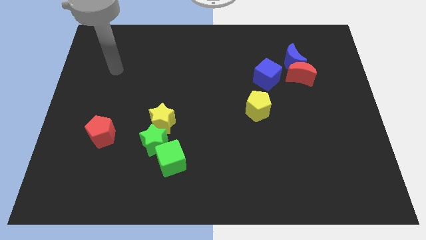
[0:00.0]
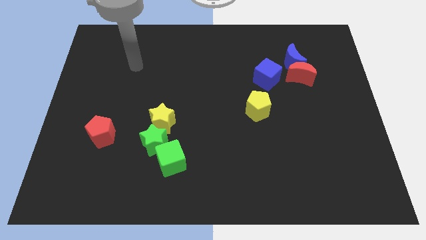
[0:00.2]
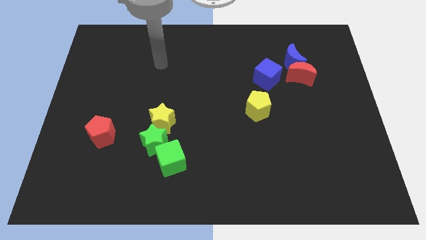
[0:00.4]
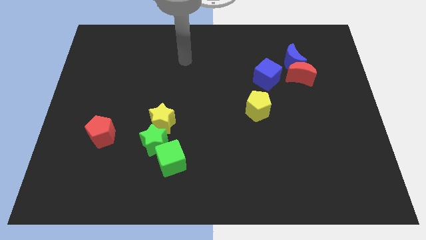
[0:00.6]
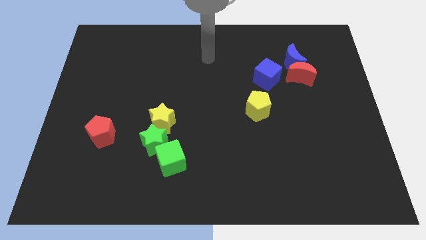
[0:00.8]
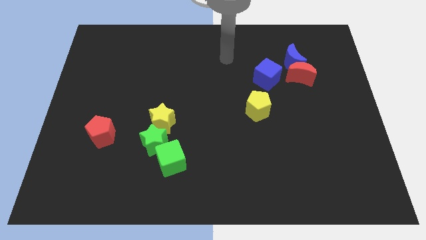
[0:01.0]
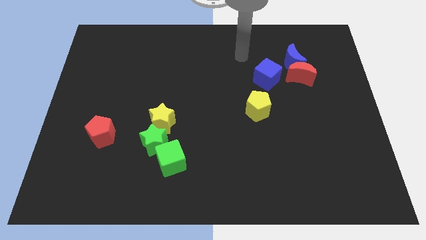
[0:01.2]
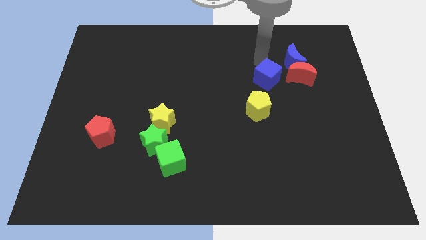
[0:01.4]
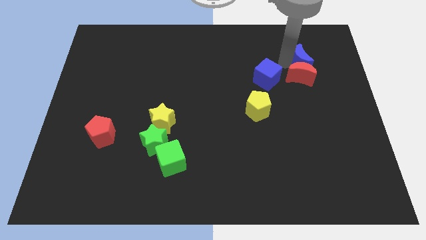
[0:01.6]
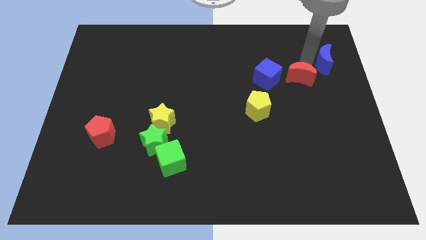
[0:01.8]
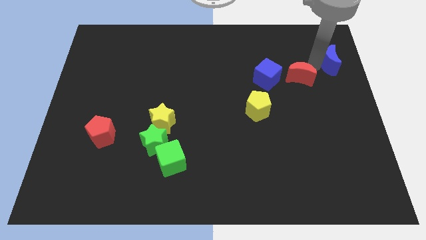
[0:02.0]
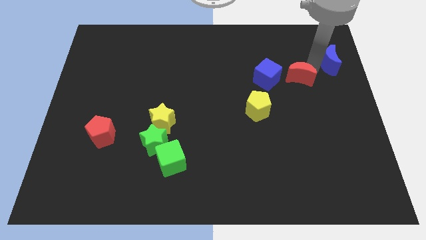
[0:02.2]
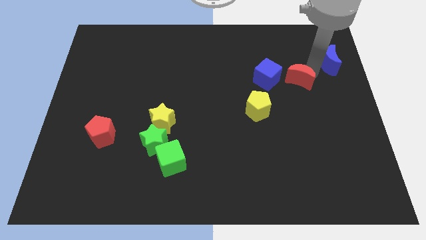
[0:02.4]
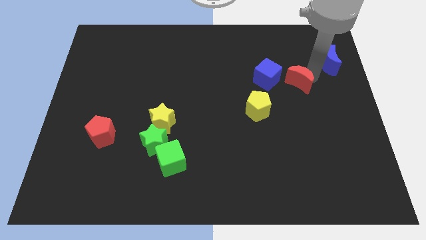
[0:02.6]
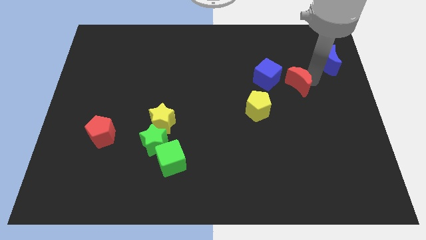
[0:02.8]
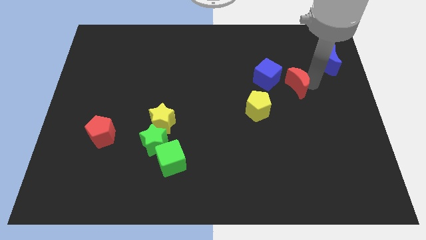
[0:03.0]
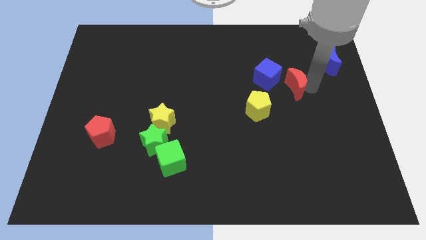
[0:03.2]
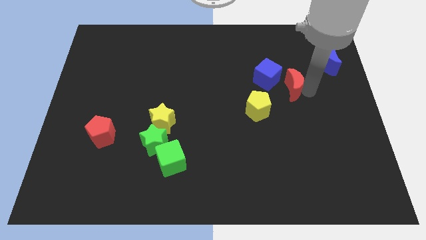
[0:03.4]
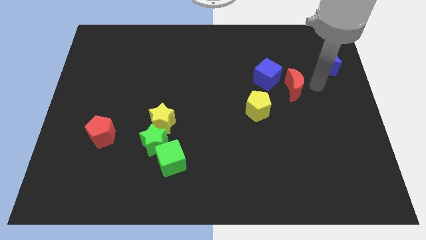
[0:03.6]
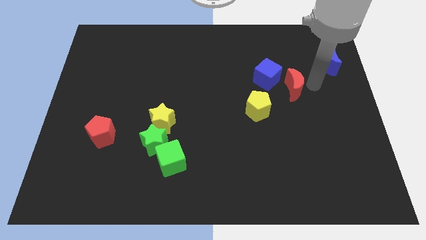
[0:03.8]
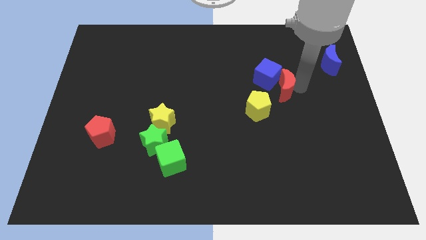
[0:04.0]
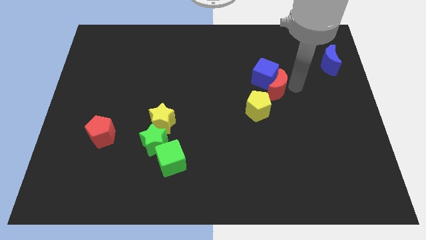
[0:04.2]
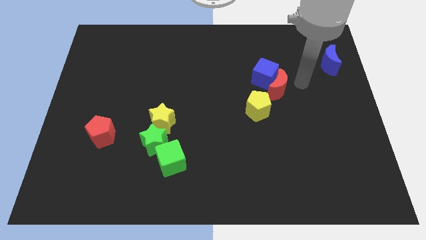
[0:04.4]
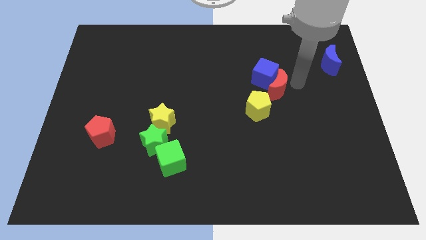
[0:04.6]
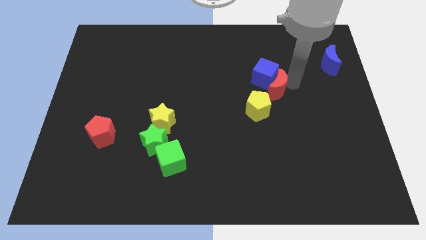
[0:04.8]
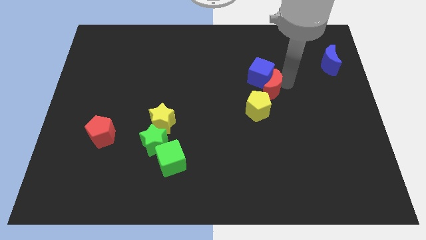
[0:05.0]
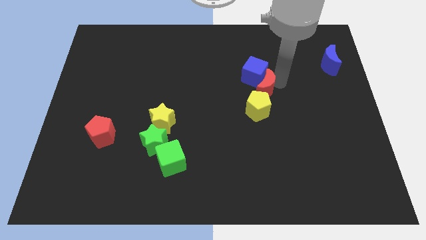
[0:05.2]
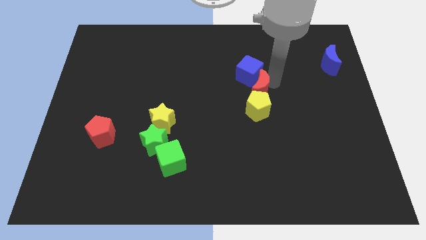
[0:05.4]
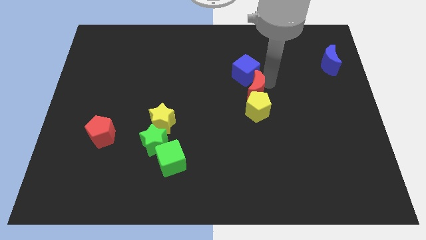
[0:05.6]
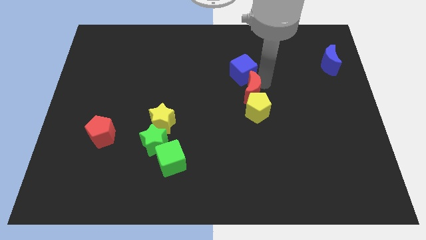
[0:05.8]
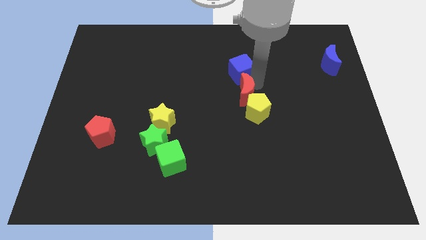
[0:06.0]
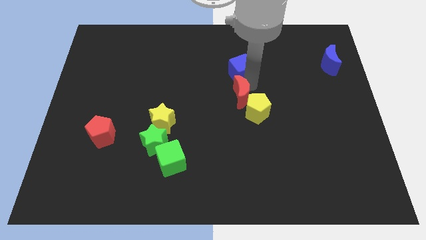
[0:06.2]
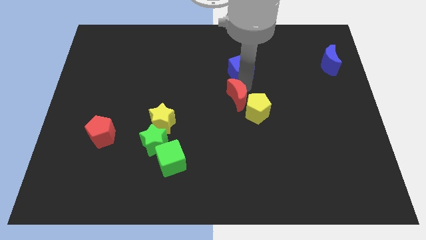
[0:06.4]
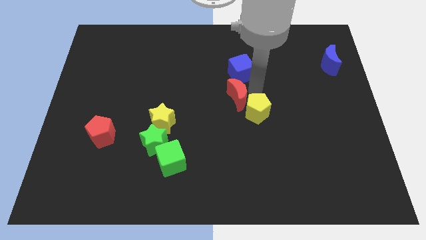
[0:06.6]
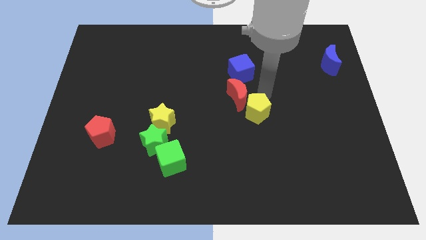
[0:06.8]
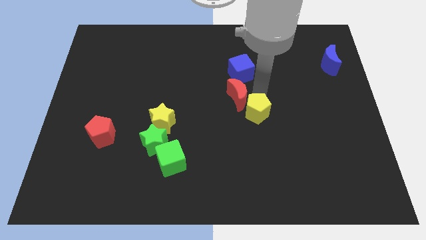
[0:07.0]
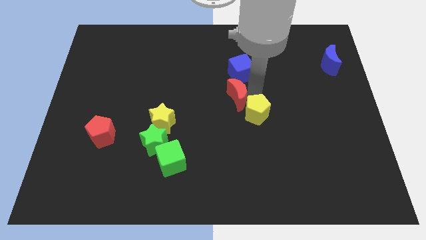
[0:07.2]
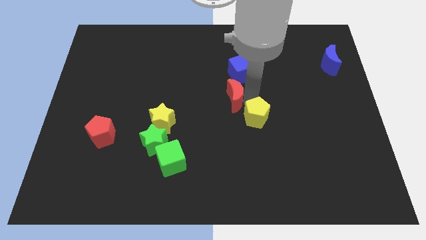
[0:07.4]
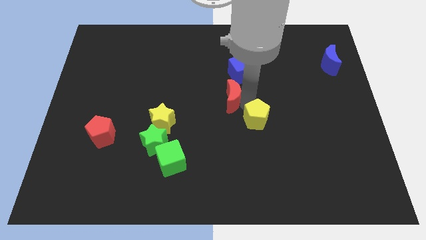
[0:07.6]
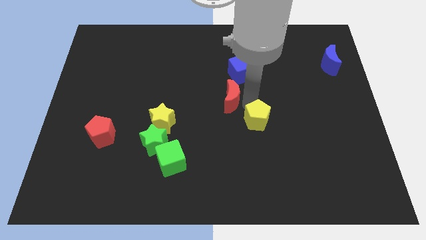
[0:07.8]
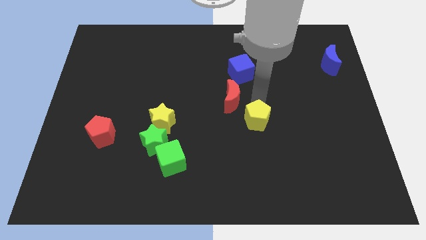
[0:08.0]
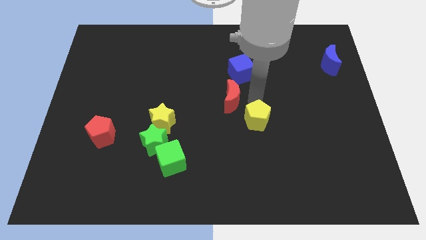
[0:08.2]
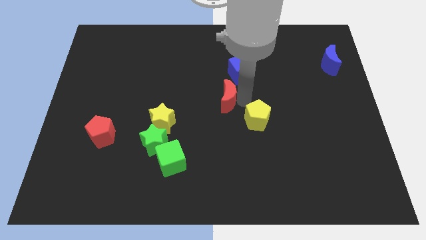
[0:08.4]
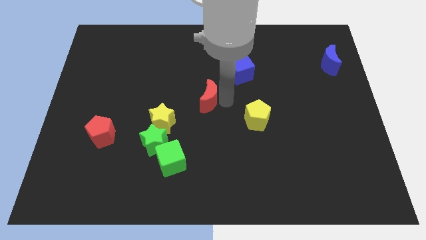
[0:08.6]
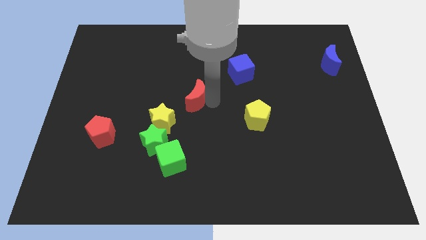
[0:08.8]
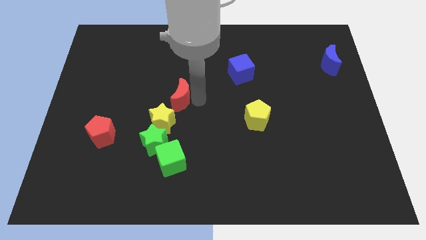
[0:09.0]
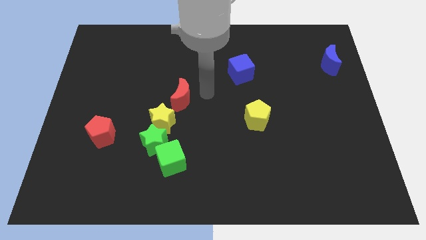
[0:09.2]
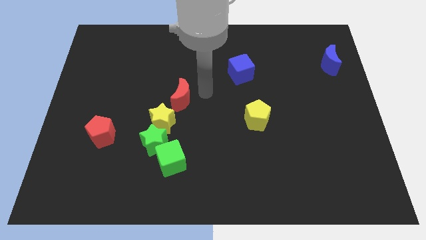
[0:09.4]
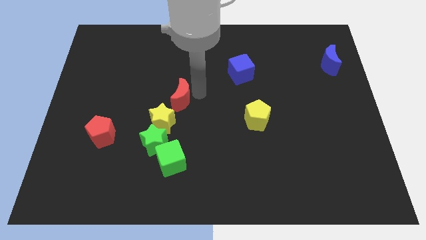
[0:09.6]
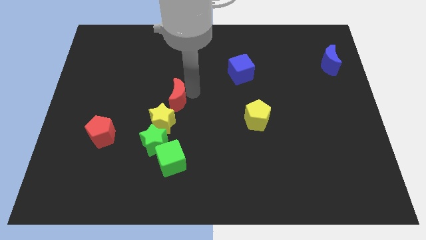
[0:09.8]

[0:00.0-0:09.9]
move the red moon to the top side of the green star

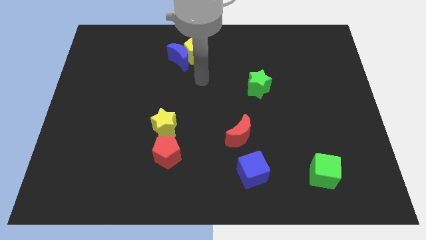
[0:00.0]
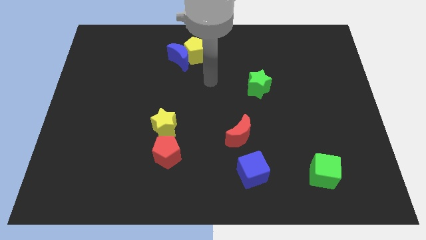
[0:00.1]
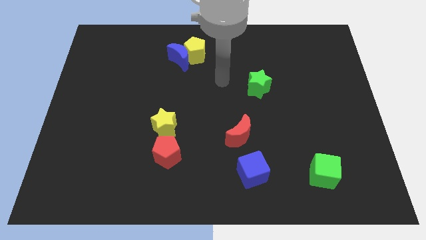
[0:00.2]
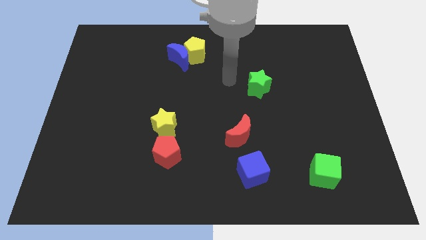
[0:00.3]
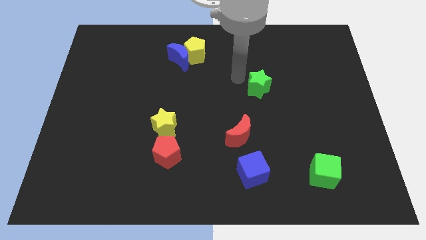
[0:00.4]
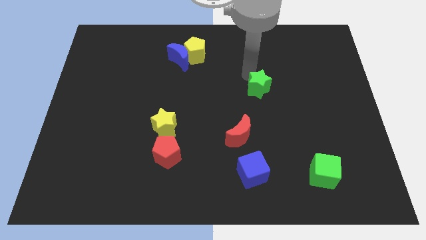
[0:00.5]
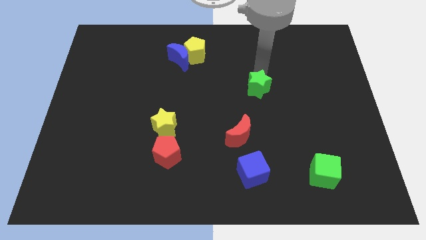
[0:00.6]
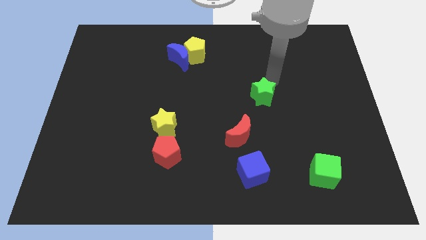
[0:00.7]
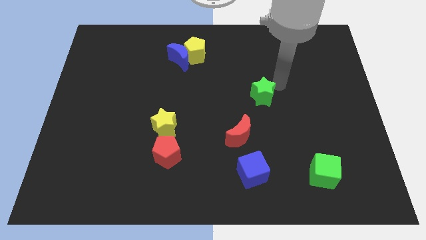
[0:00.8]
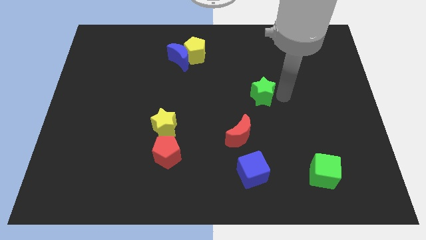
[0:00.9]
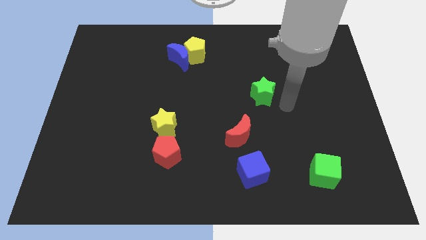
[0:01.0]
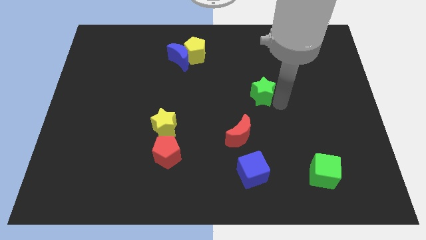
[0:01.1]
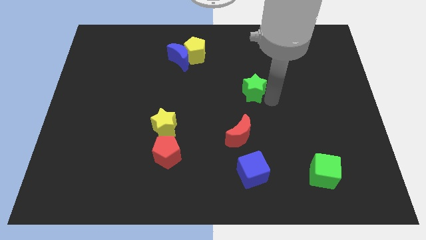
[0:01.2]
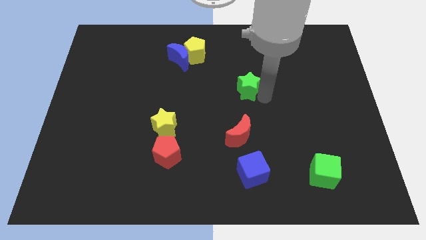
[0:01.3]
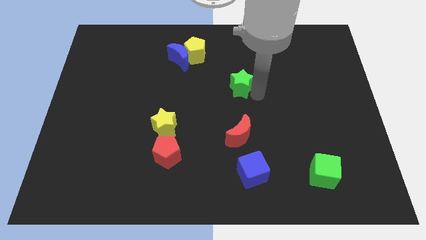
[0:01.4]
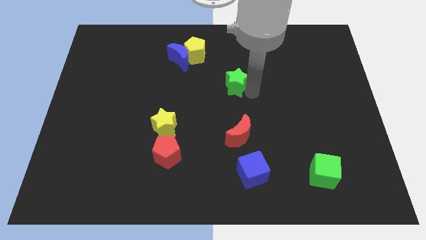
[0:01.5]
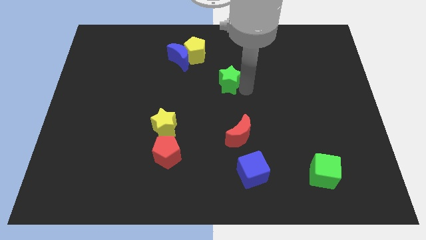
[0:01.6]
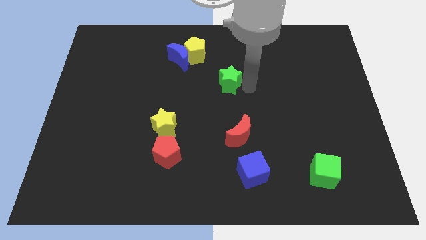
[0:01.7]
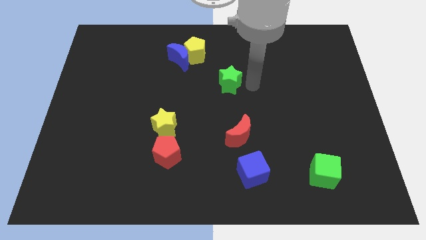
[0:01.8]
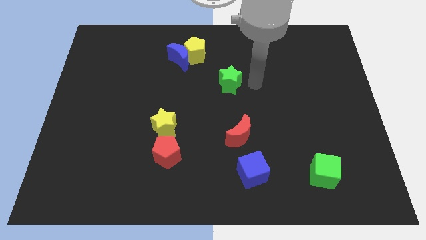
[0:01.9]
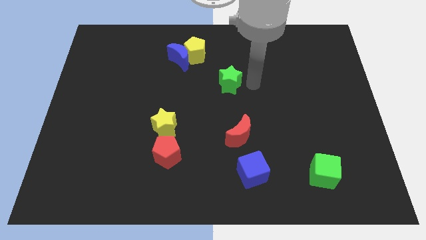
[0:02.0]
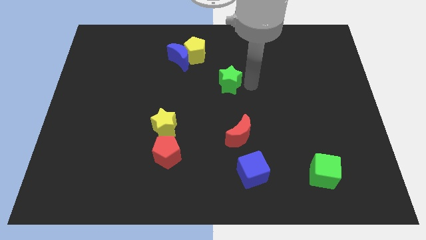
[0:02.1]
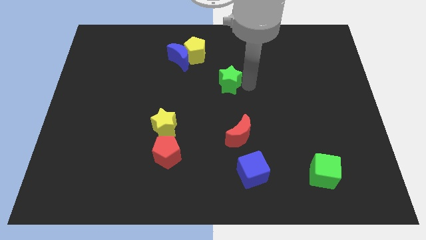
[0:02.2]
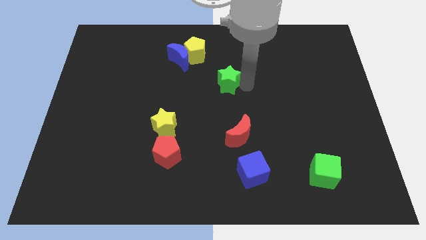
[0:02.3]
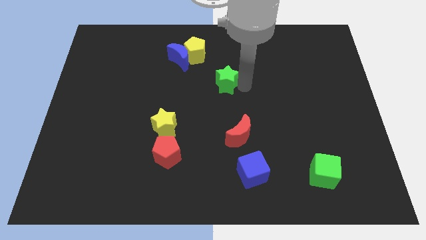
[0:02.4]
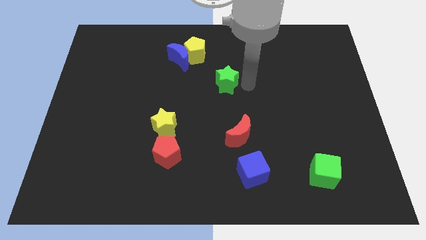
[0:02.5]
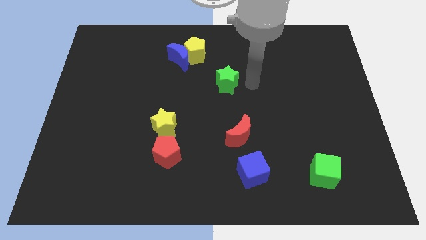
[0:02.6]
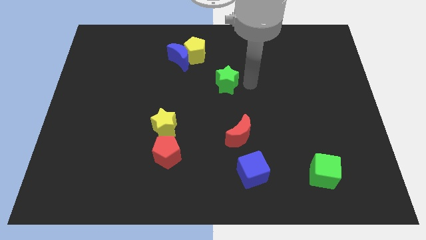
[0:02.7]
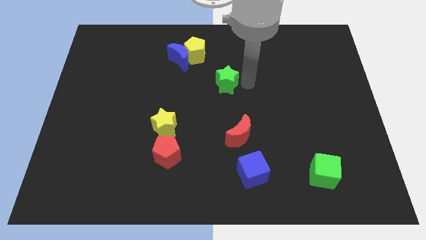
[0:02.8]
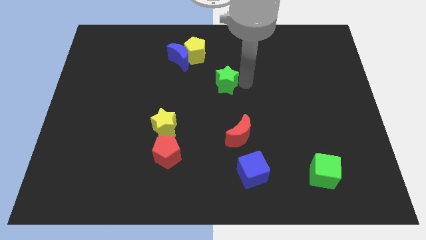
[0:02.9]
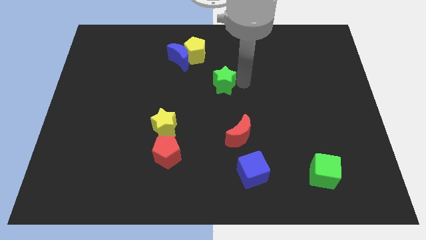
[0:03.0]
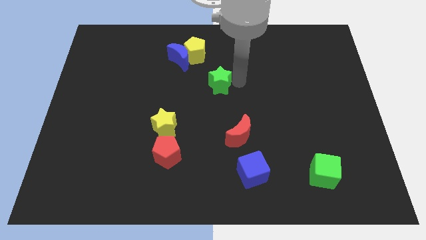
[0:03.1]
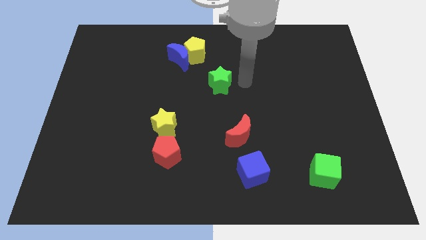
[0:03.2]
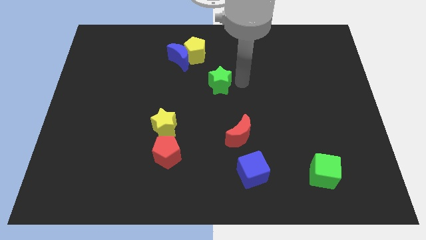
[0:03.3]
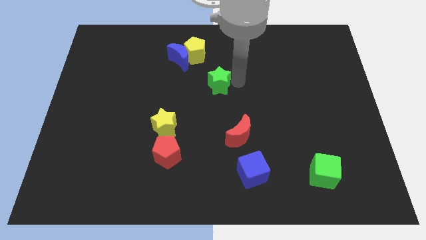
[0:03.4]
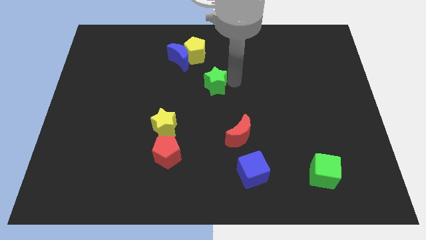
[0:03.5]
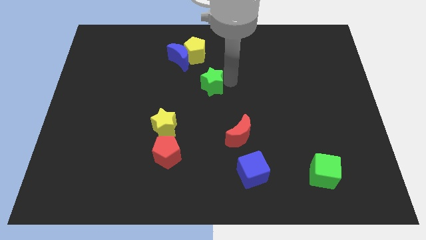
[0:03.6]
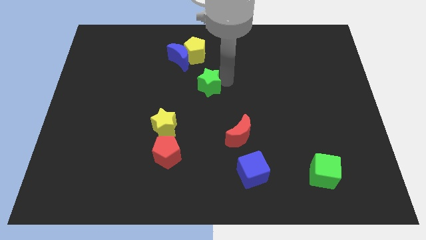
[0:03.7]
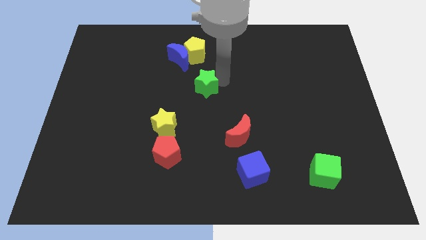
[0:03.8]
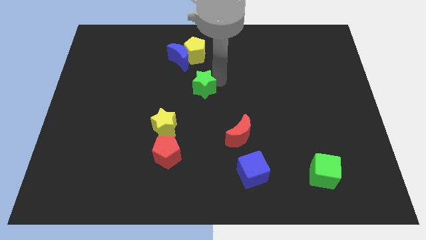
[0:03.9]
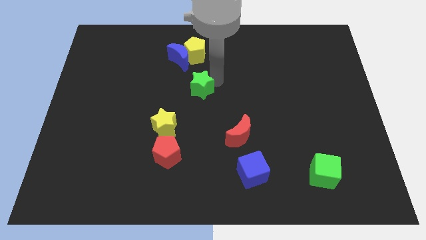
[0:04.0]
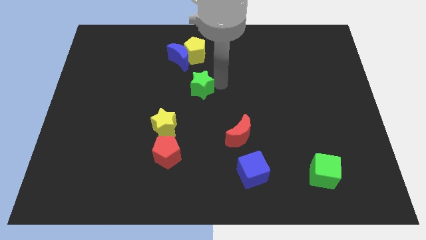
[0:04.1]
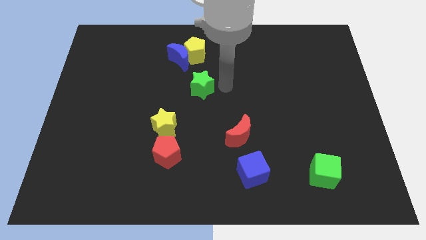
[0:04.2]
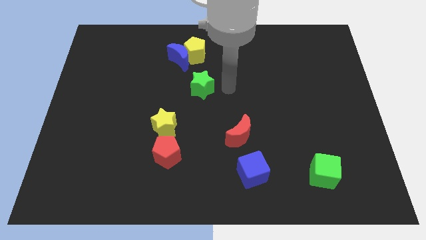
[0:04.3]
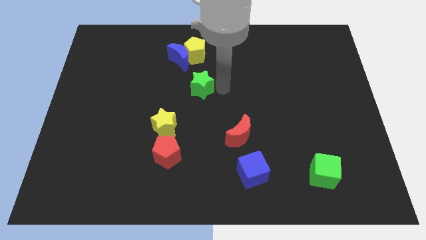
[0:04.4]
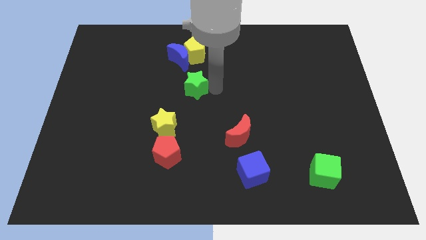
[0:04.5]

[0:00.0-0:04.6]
put the green star to the bottom of the blue moon
